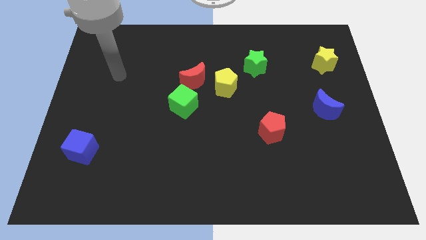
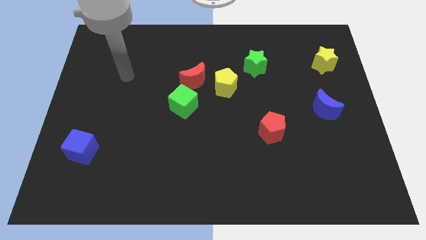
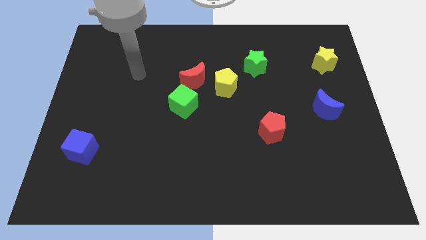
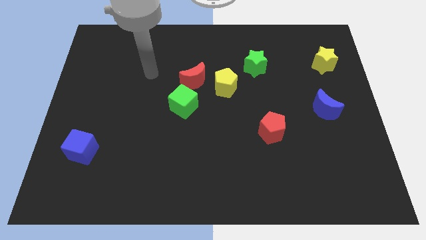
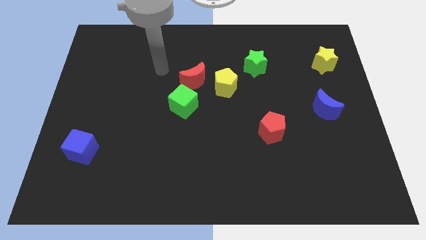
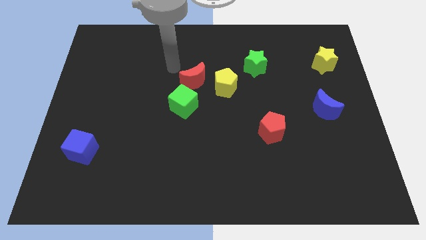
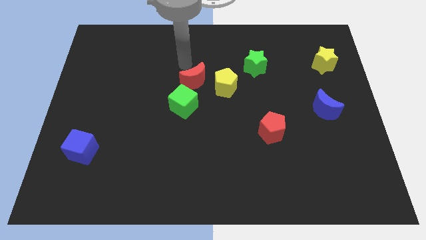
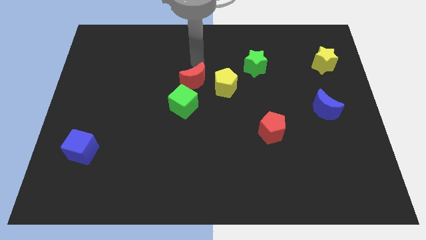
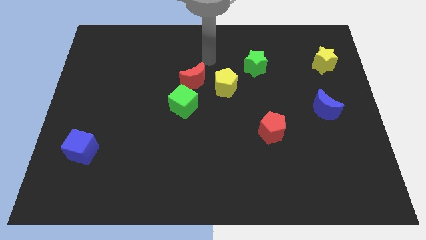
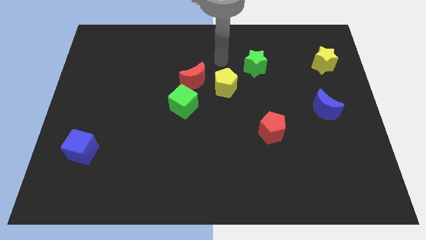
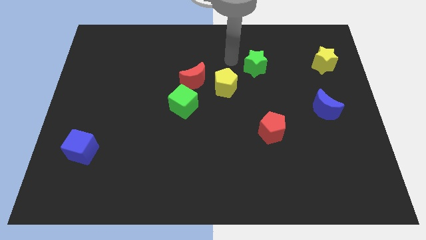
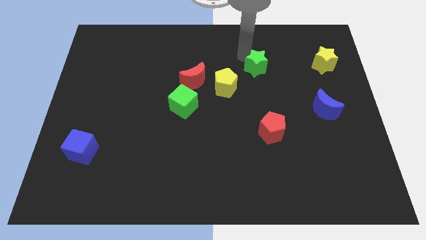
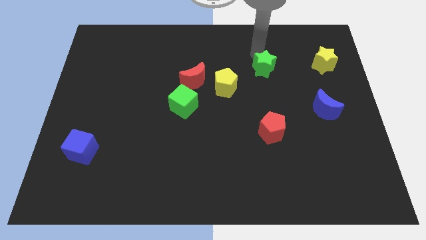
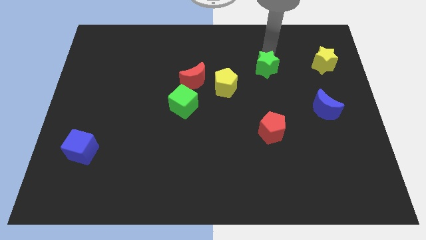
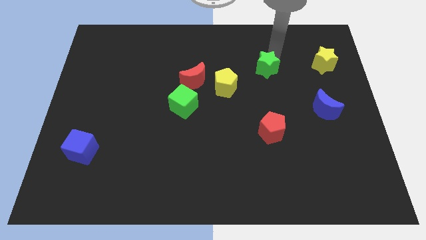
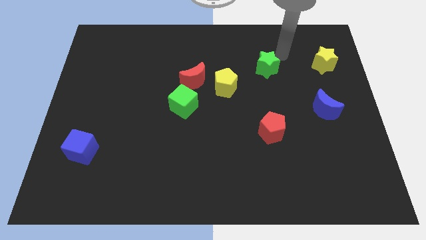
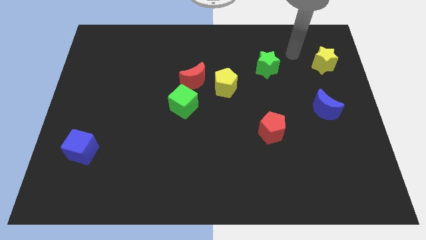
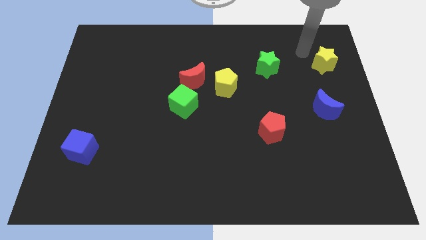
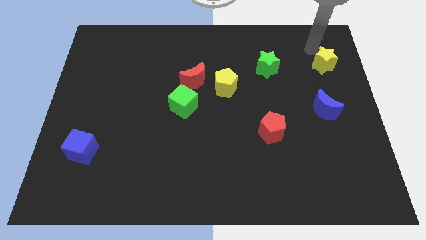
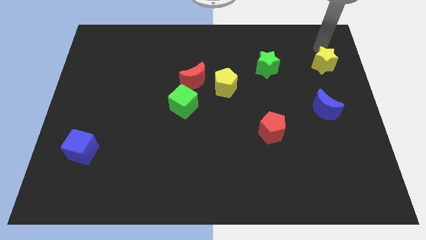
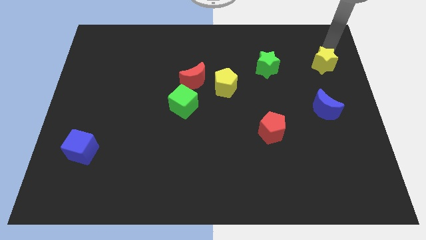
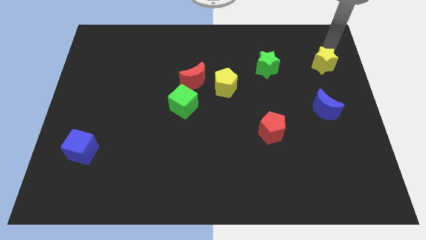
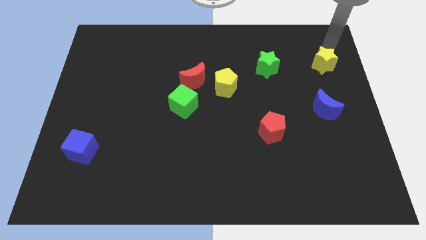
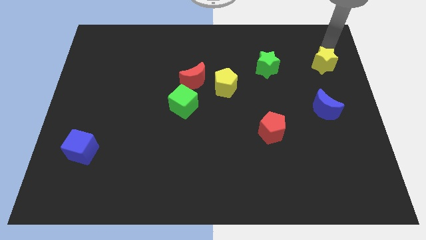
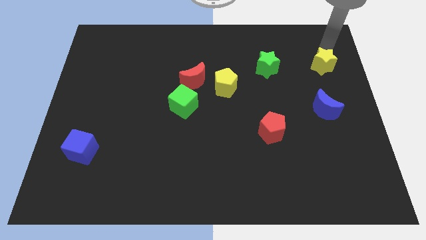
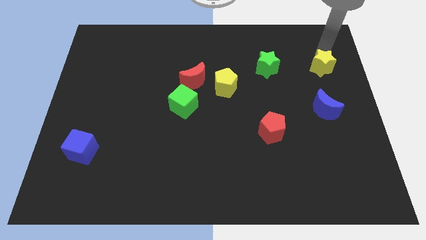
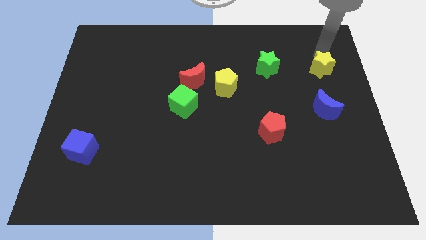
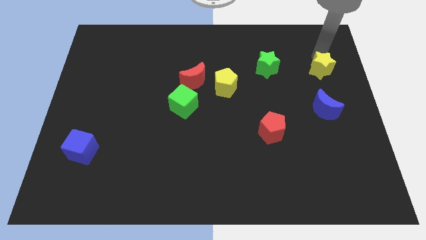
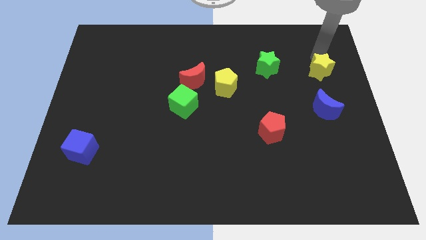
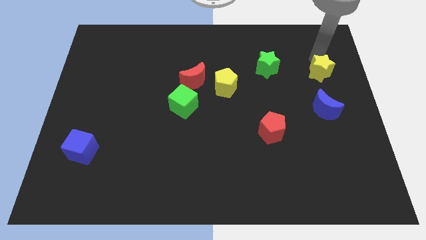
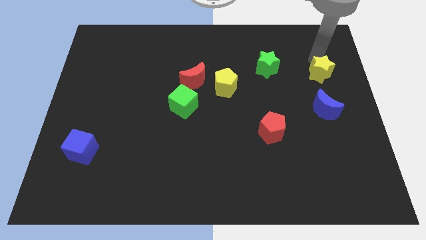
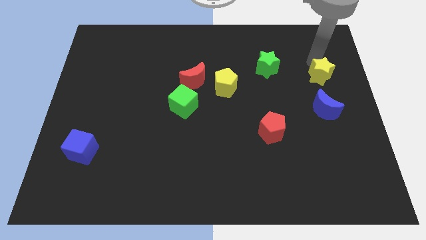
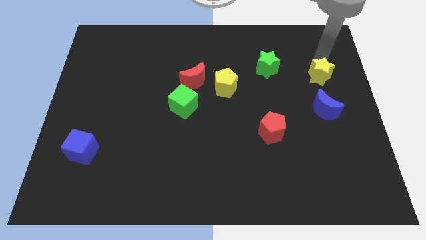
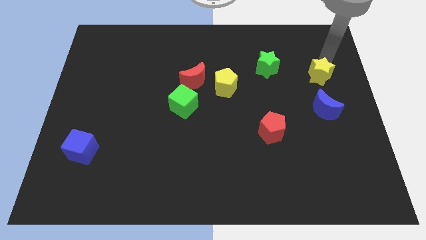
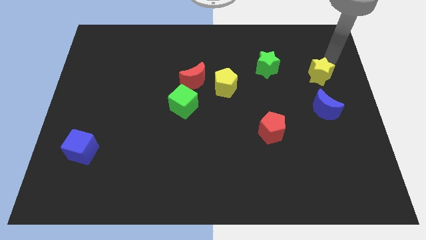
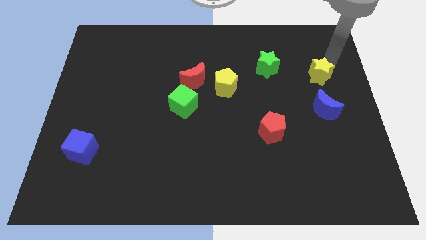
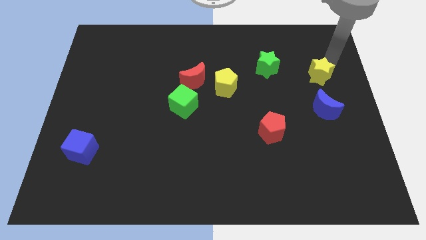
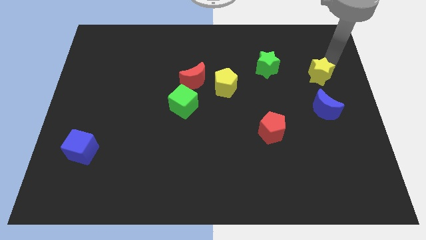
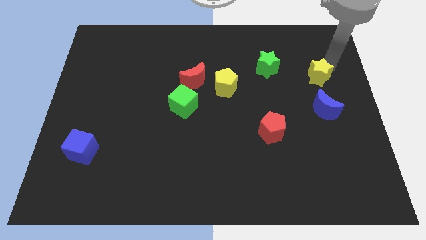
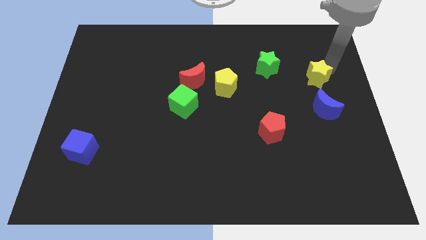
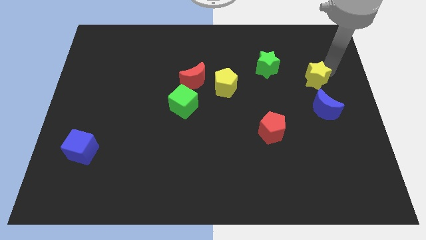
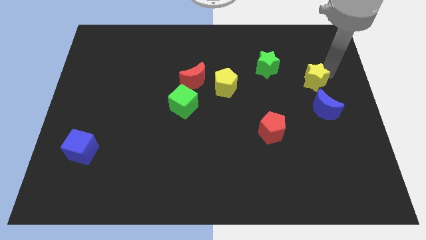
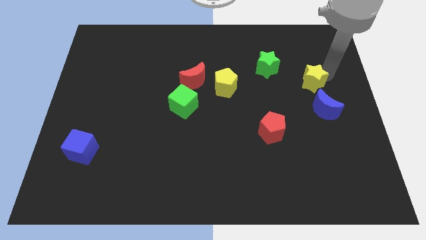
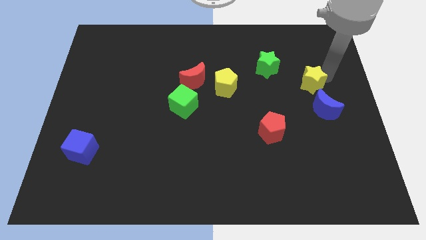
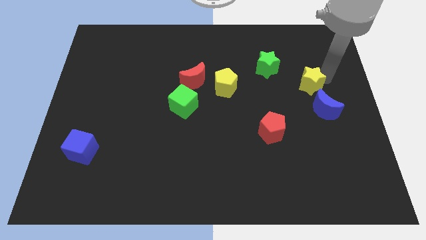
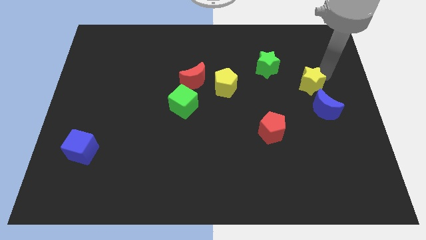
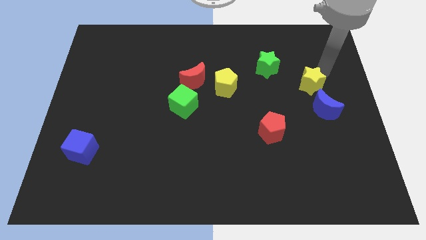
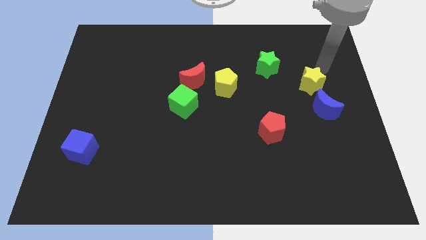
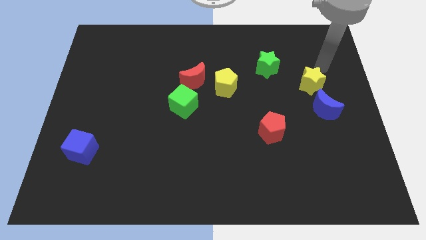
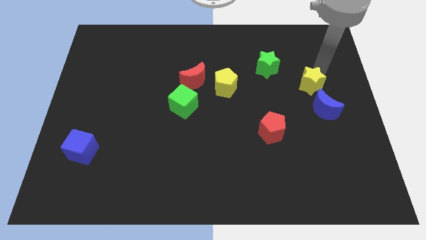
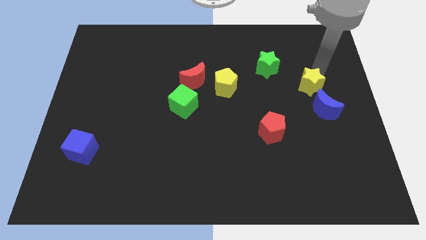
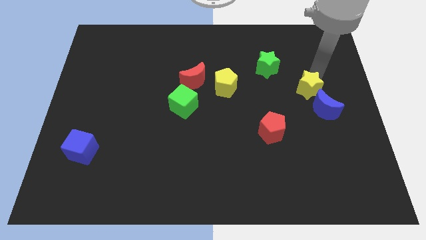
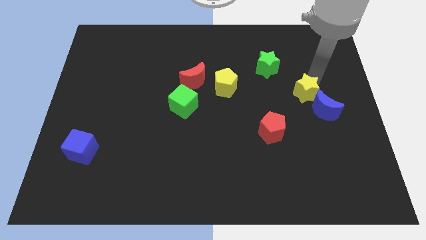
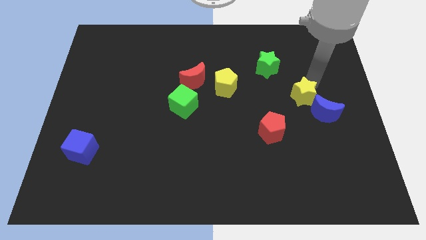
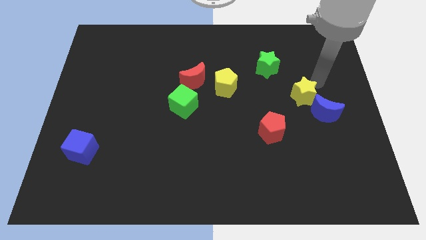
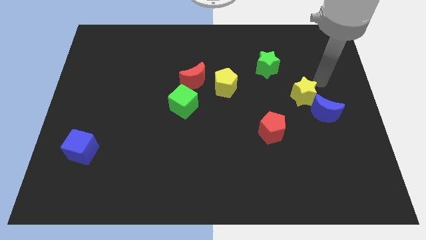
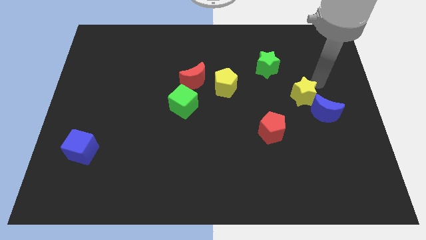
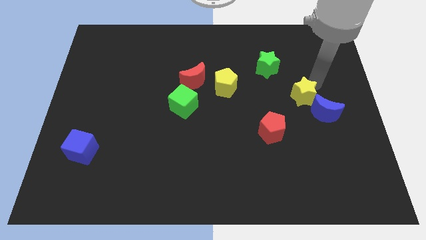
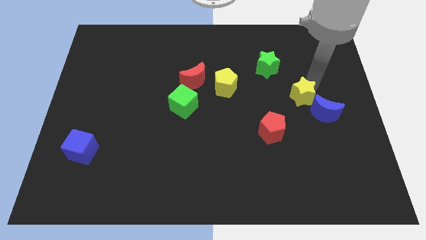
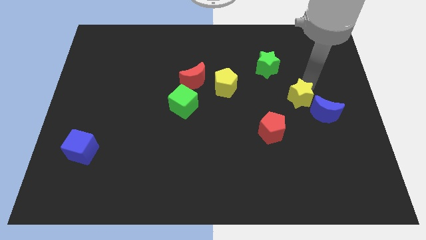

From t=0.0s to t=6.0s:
put the yellow star just left of the blue moon

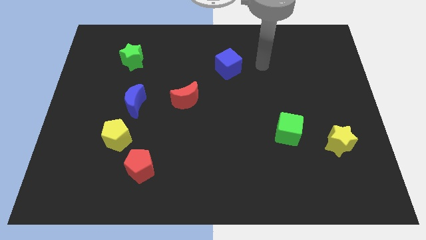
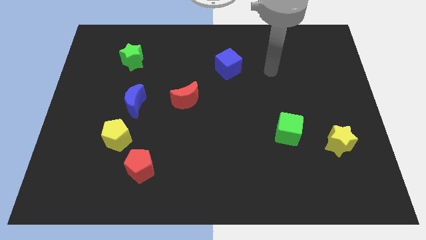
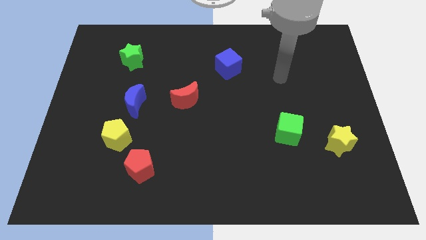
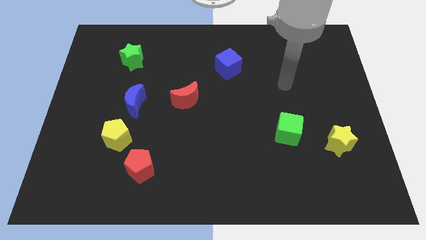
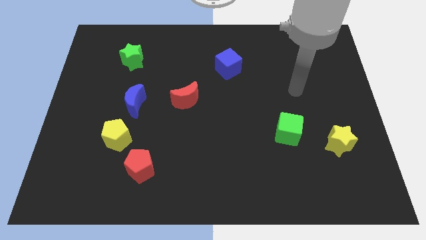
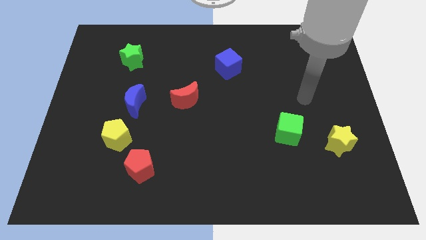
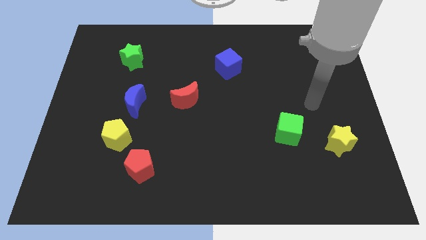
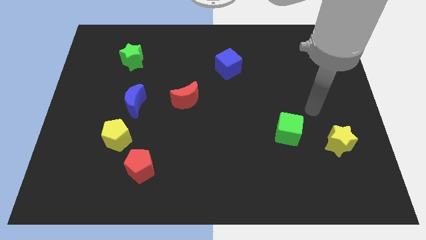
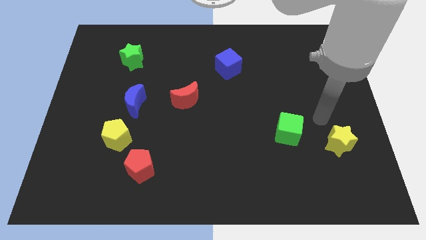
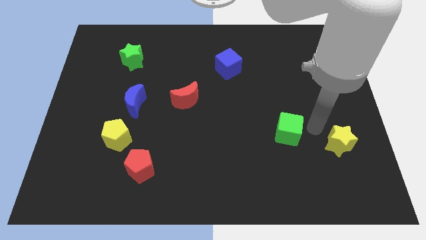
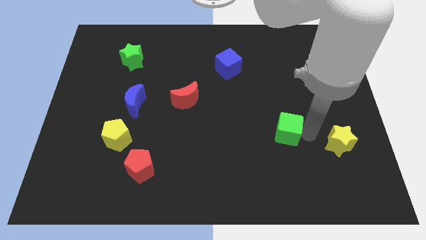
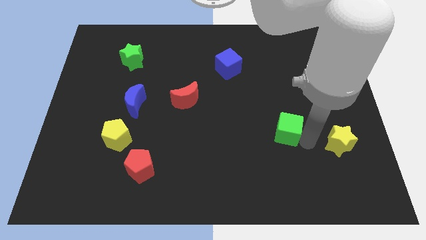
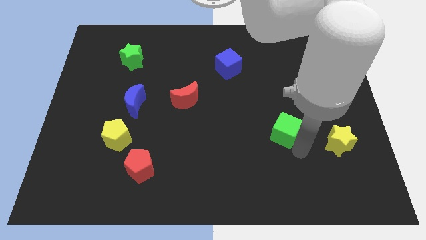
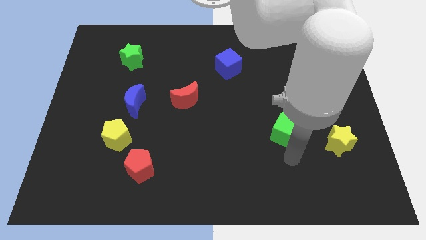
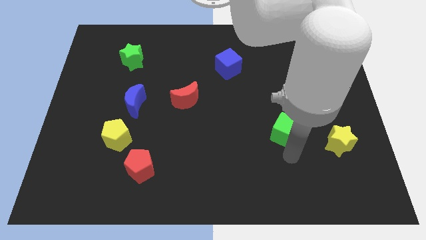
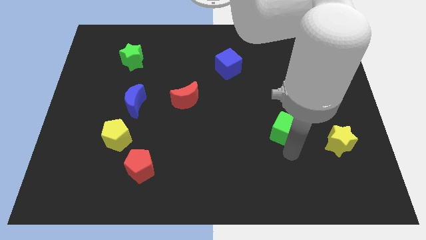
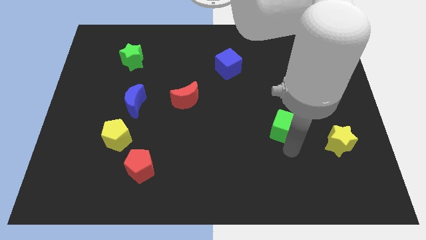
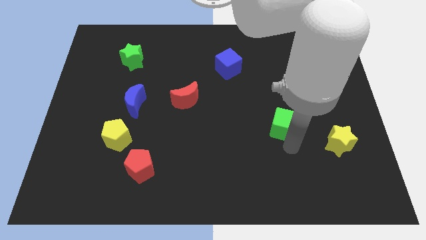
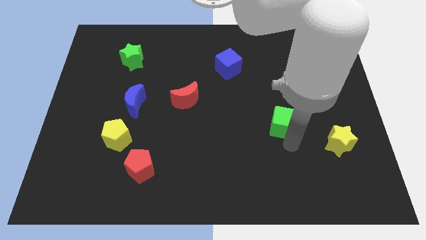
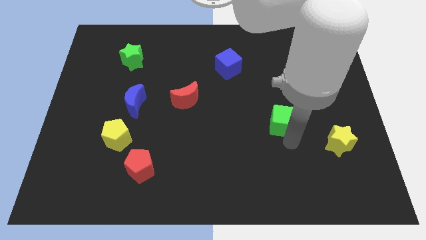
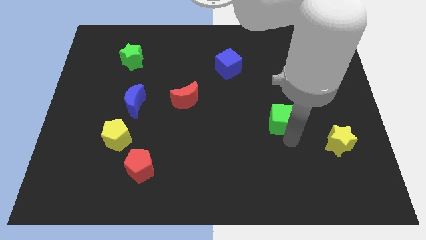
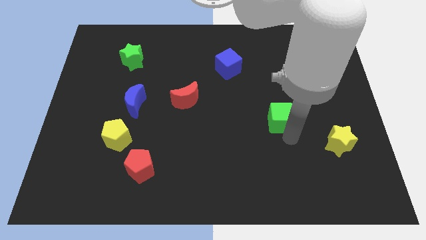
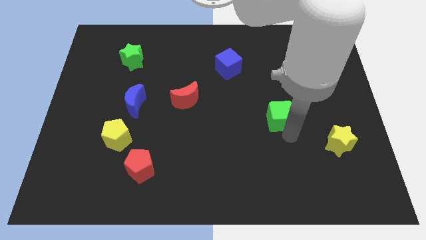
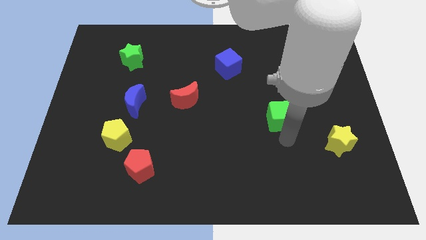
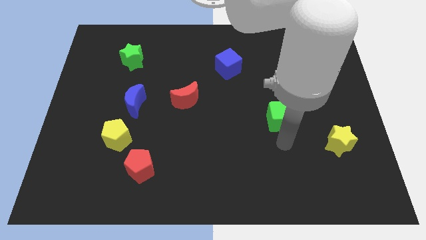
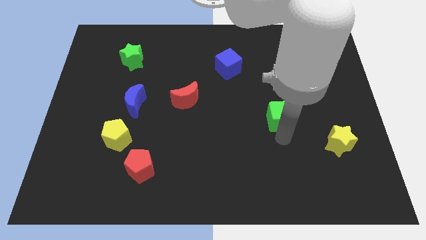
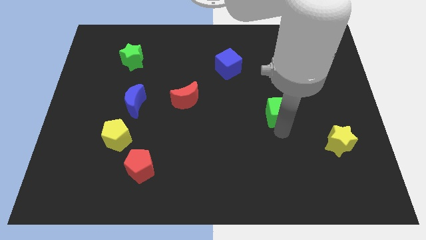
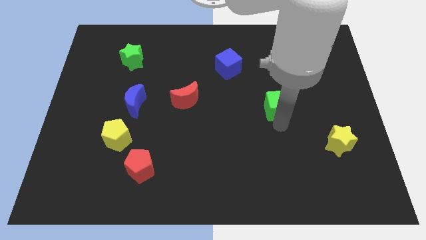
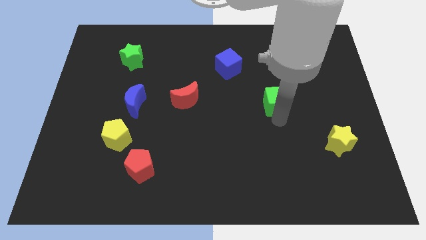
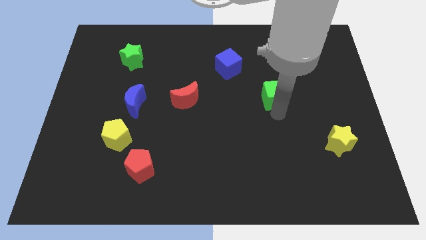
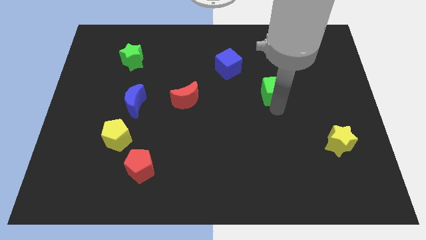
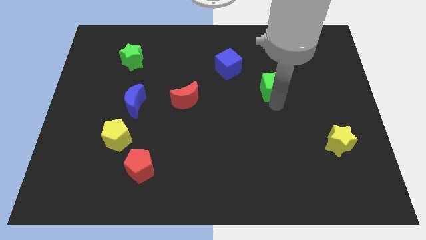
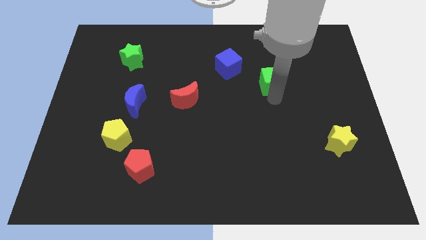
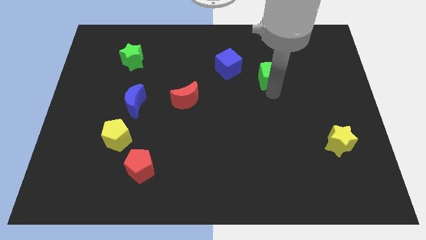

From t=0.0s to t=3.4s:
move the green cube to the right side of the blue cube
